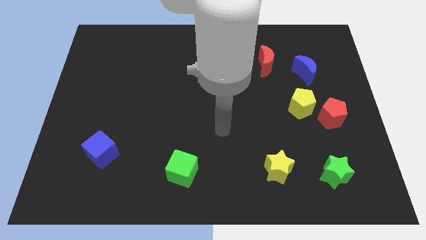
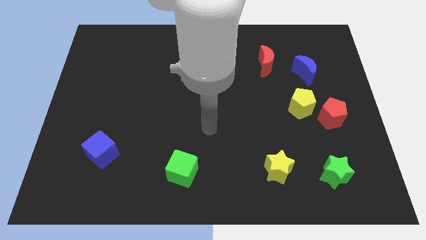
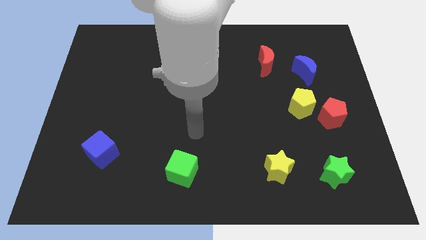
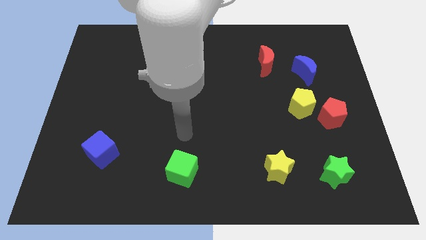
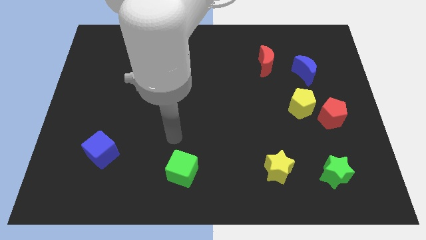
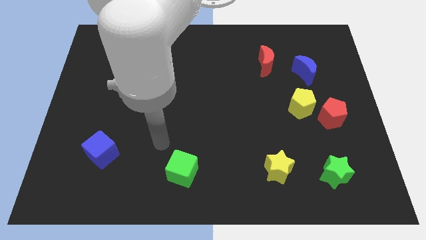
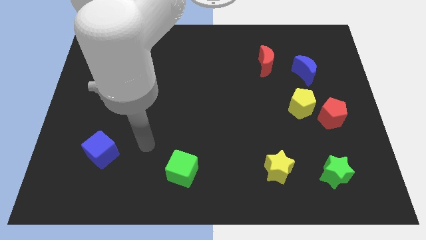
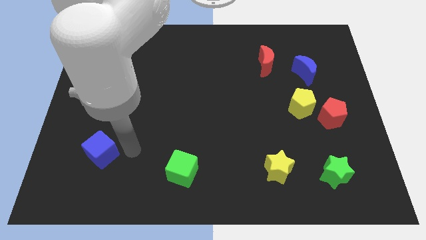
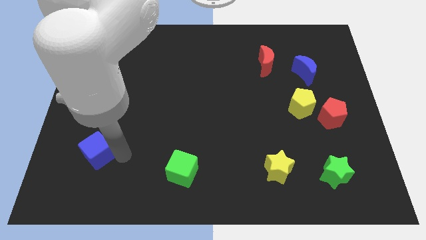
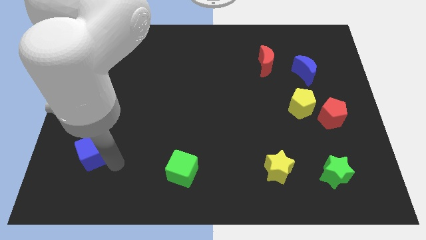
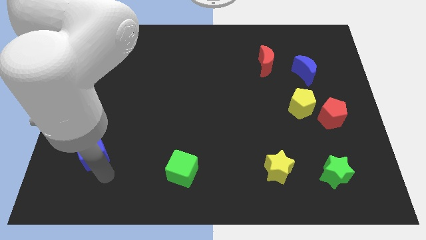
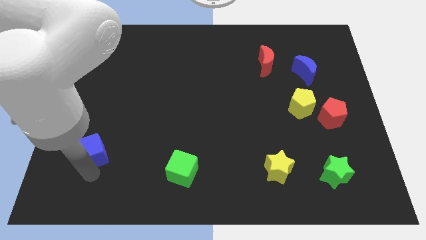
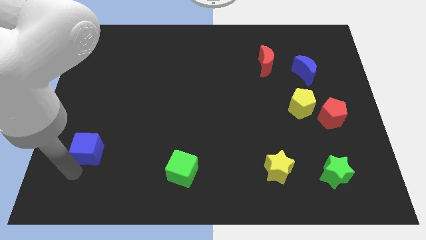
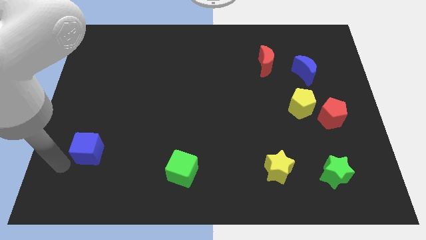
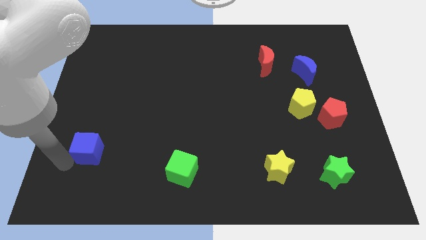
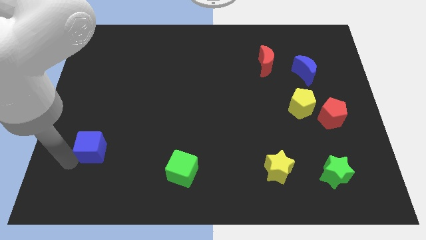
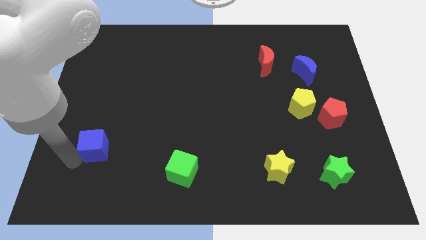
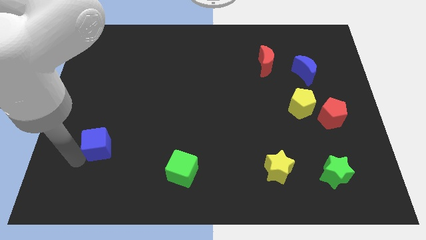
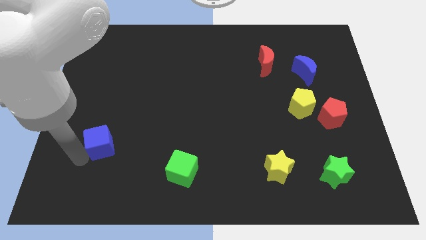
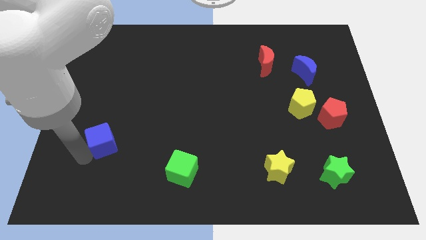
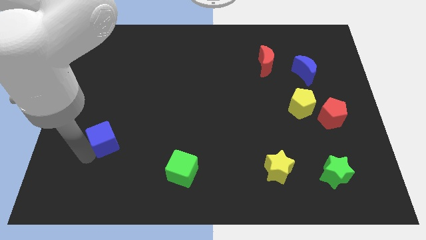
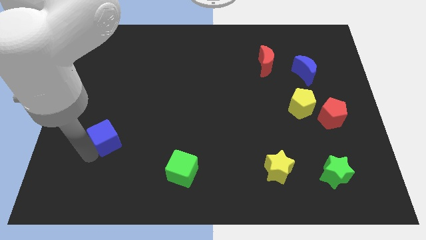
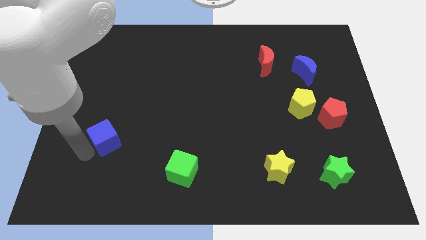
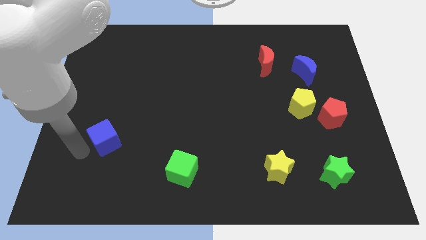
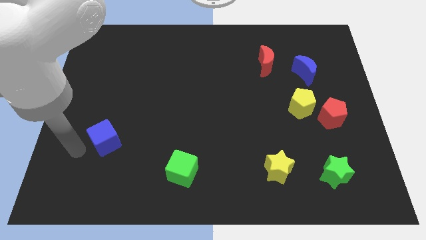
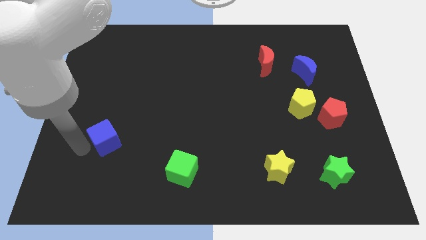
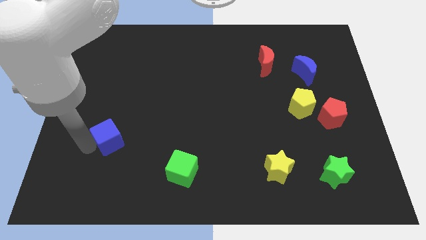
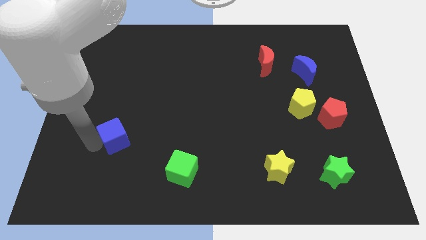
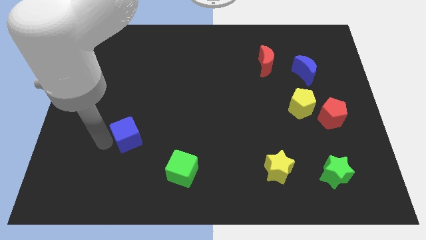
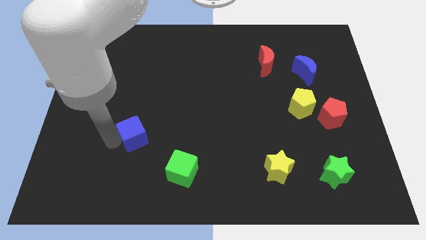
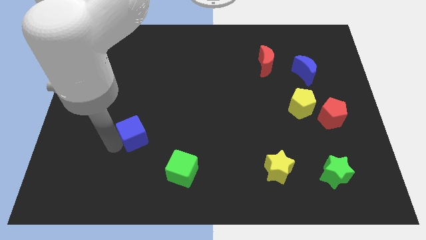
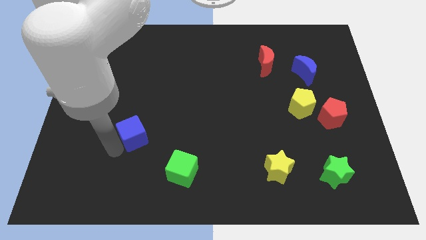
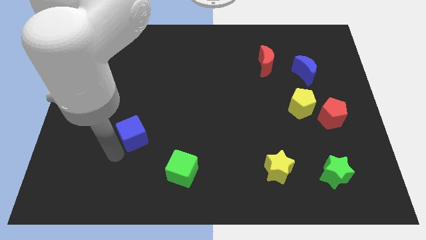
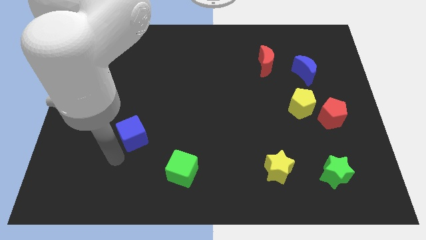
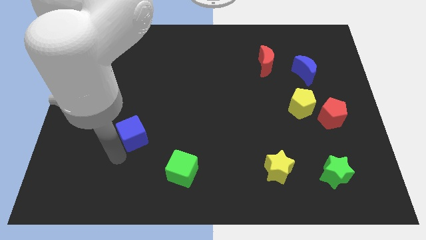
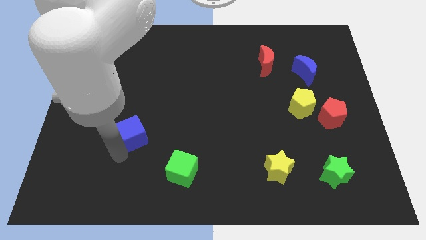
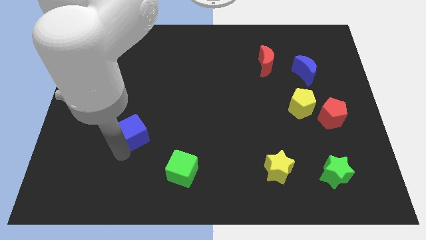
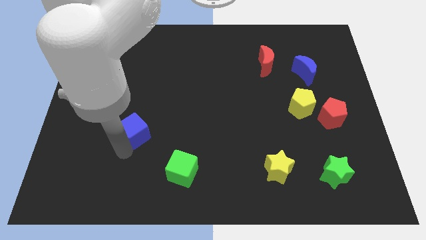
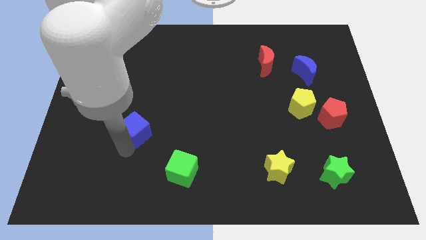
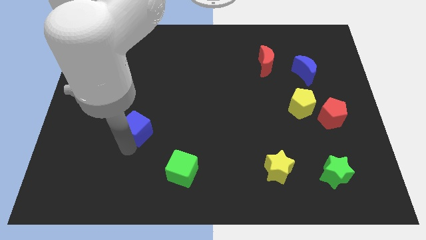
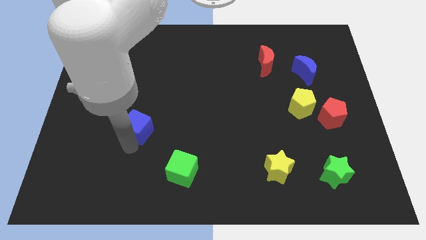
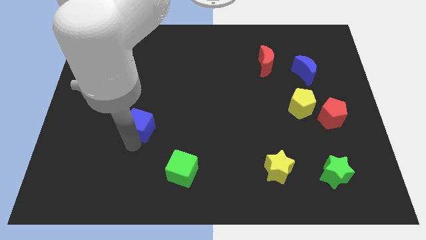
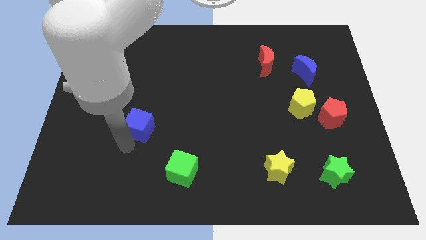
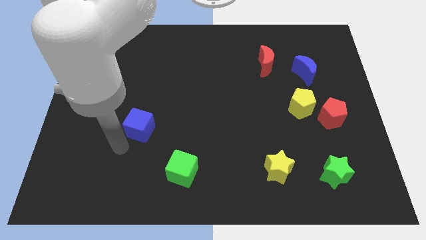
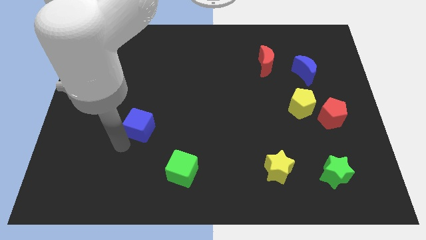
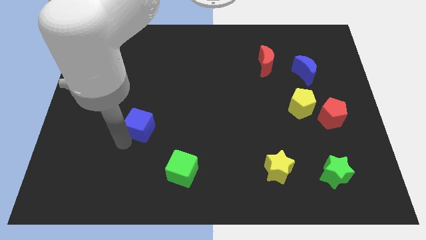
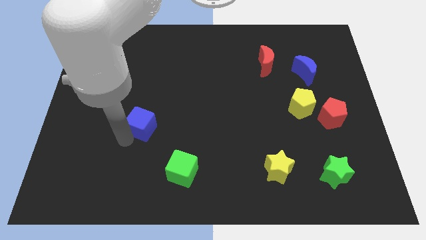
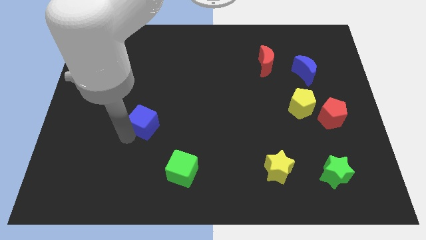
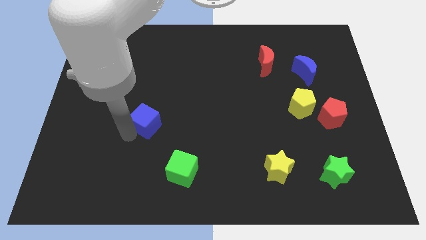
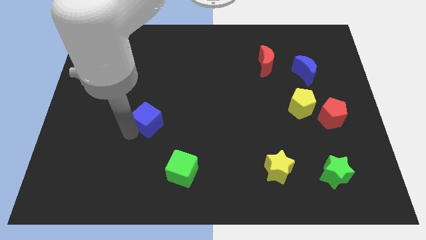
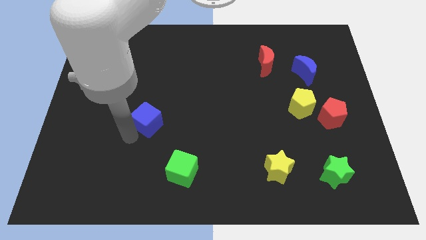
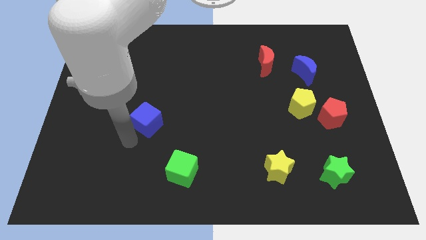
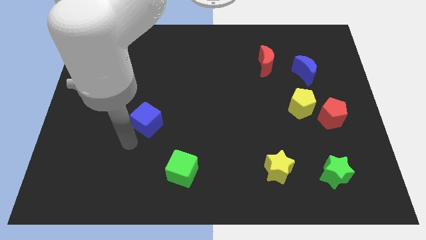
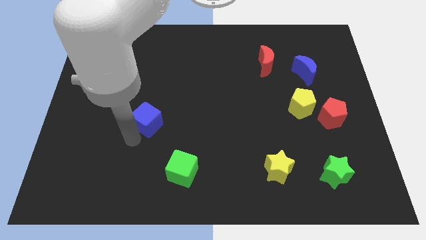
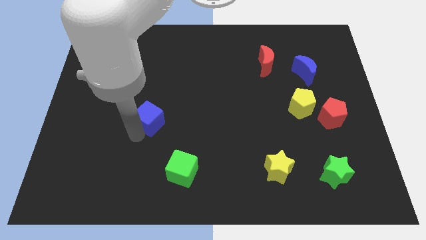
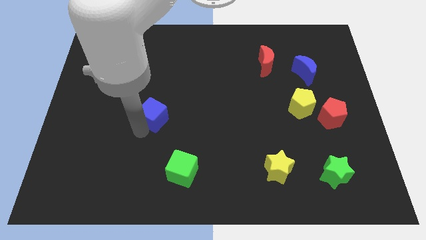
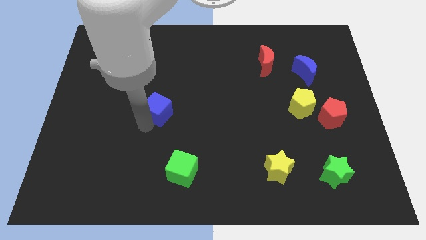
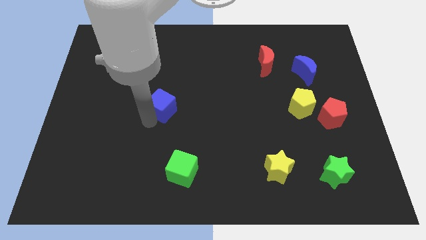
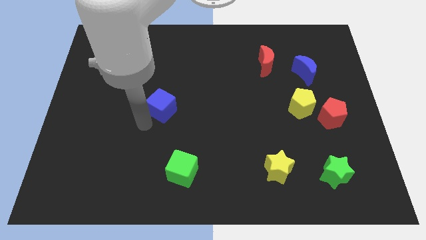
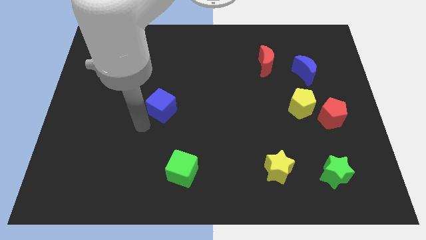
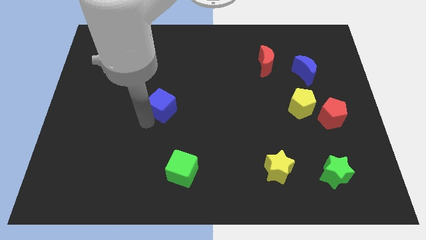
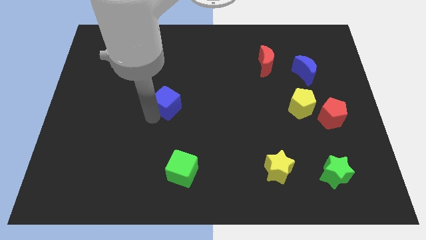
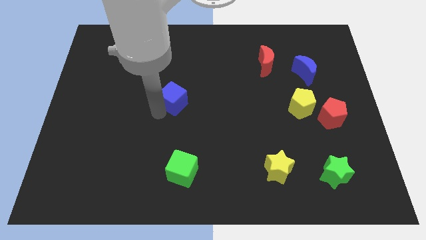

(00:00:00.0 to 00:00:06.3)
push the blue cube upwards and to the right

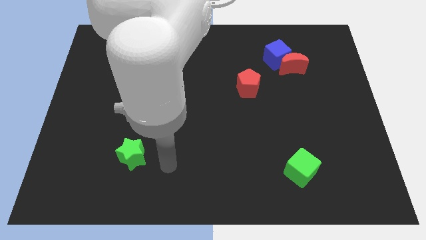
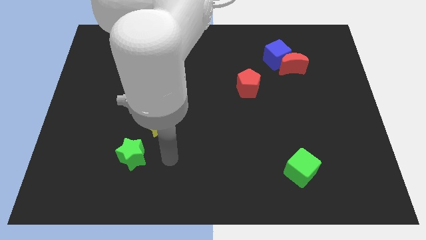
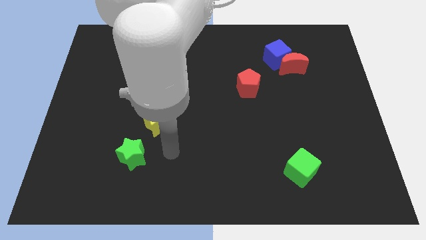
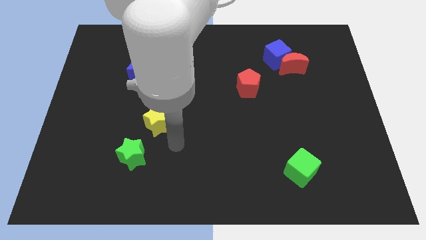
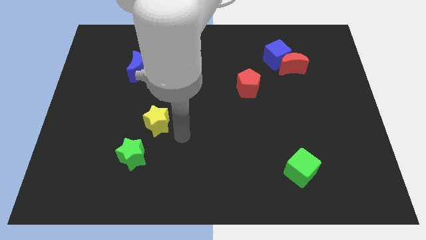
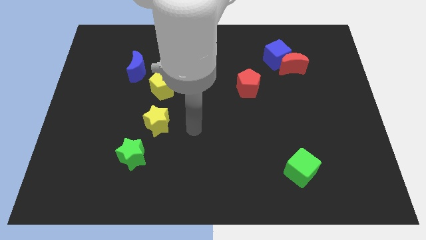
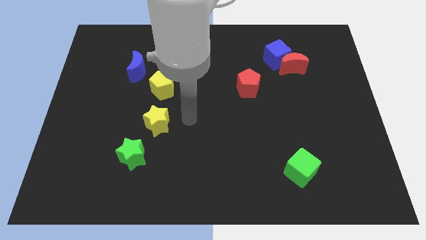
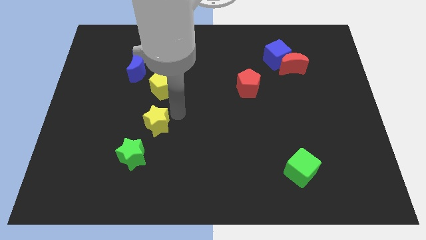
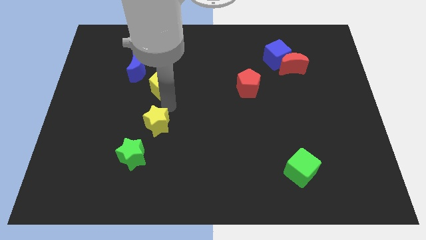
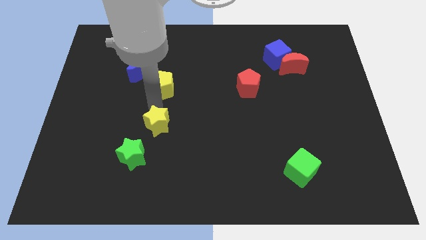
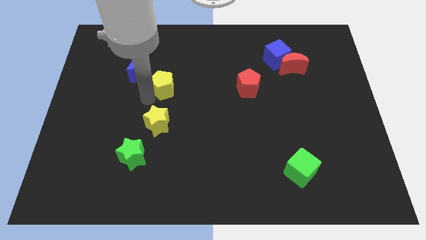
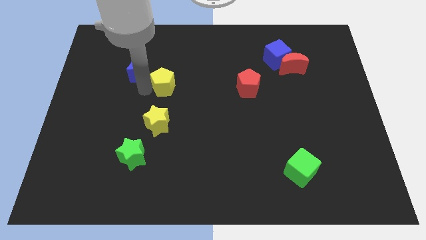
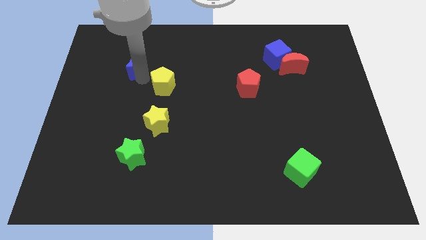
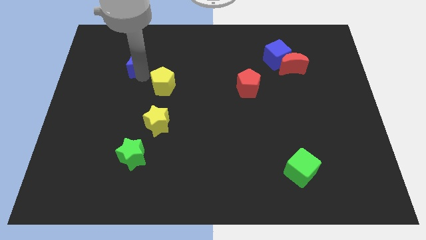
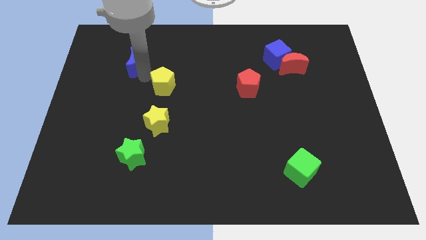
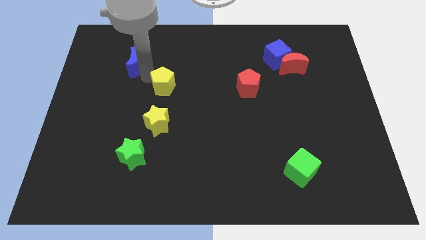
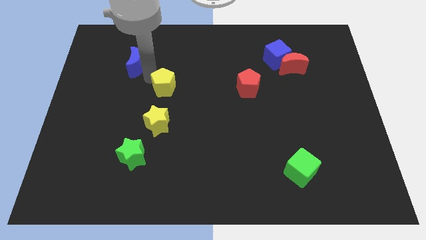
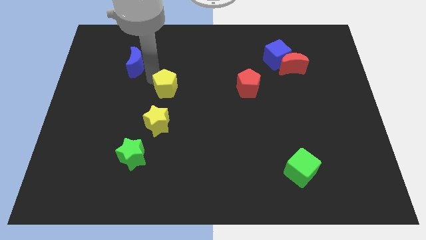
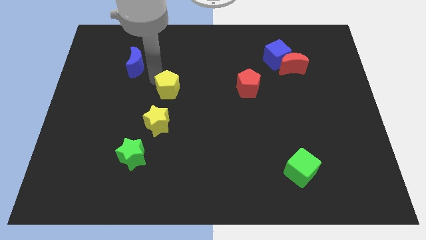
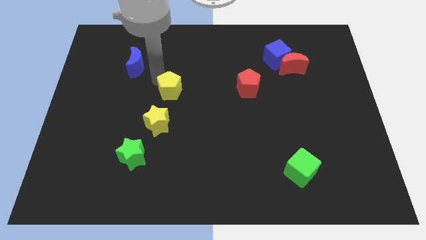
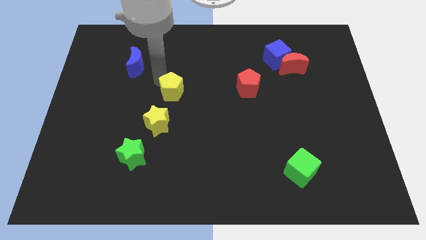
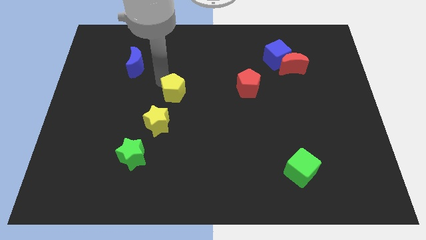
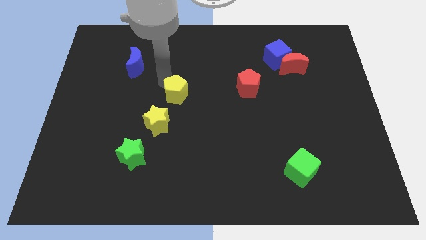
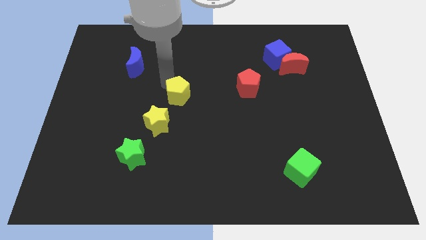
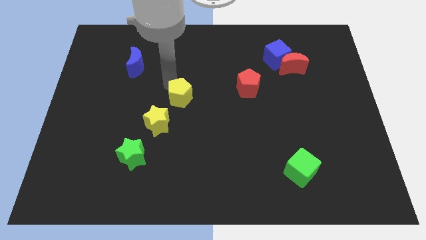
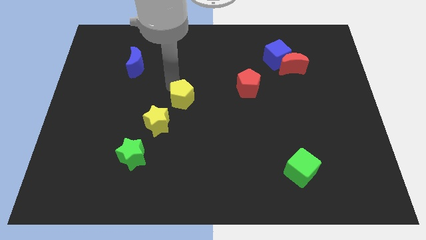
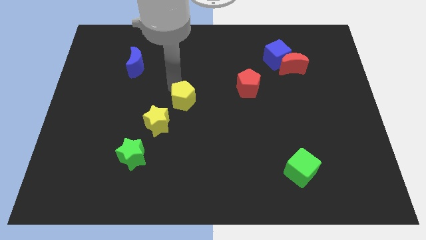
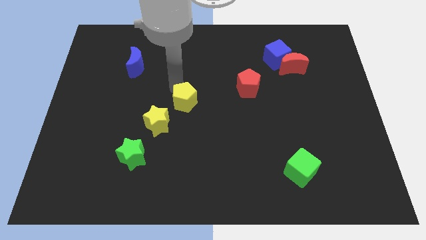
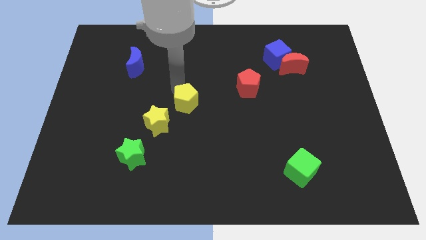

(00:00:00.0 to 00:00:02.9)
slide the yellow pentagon down and then right a bit
